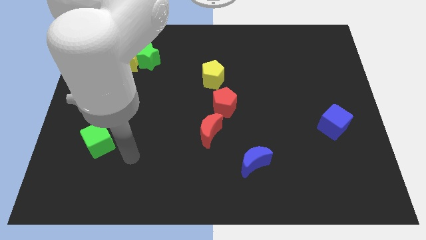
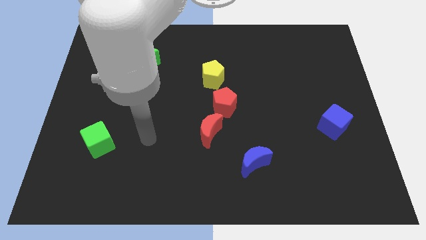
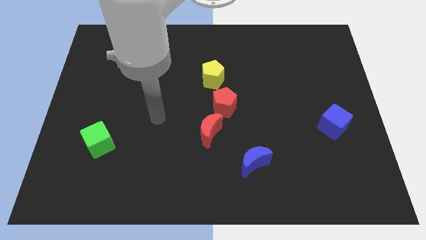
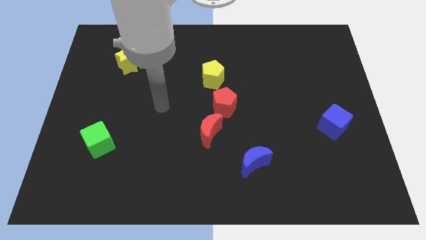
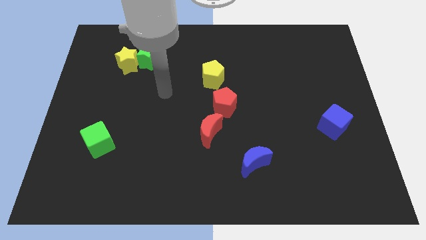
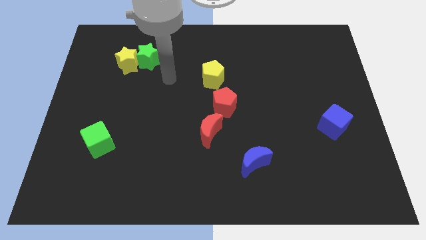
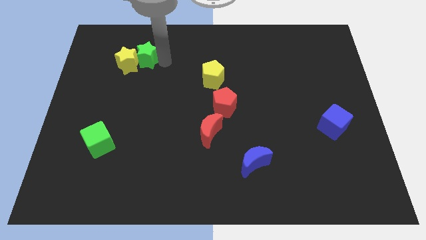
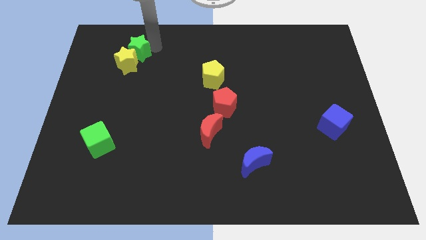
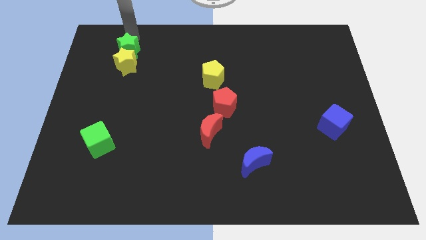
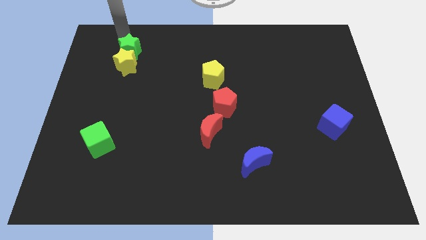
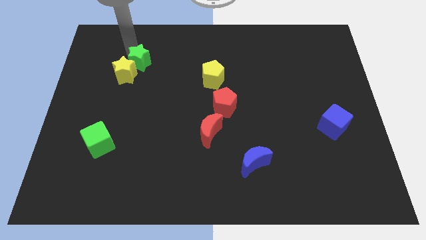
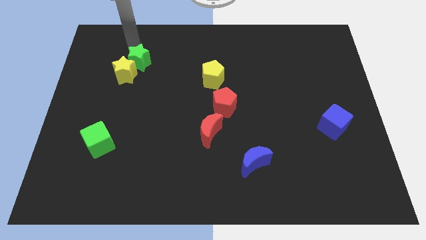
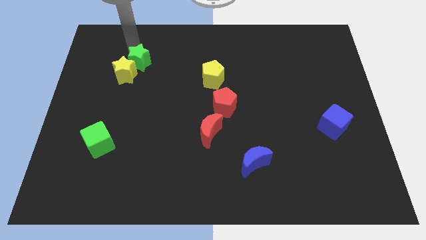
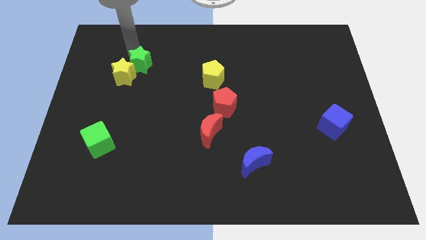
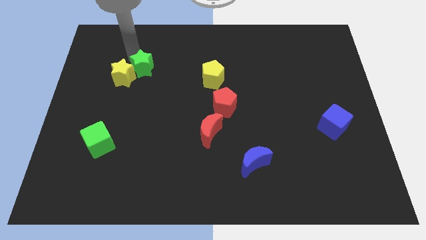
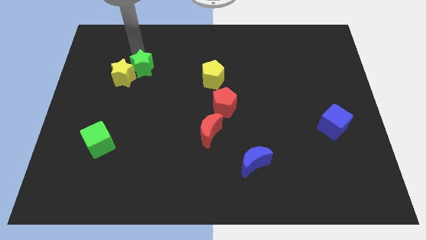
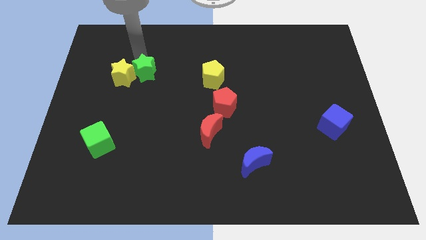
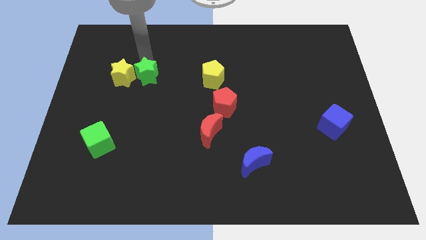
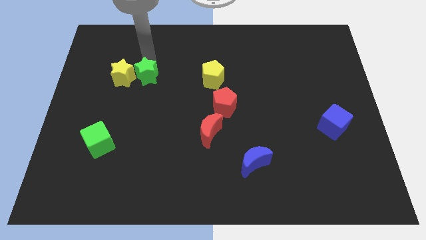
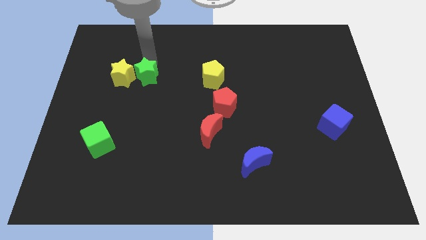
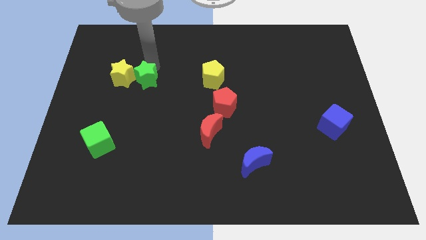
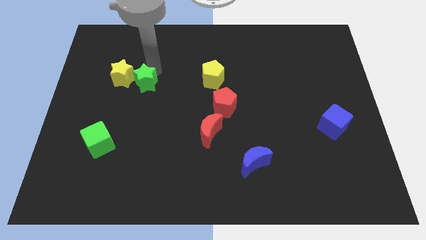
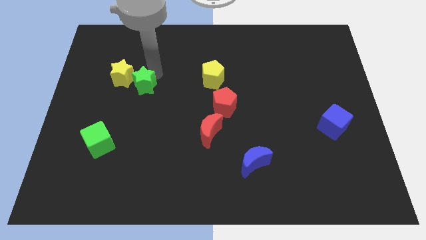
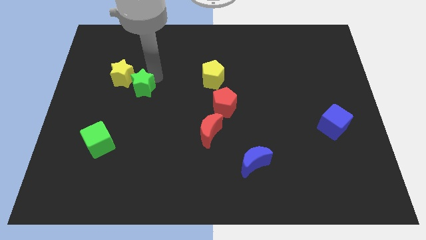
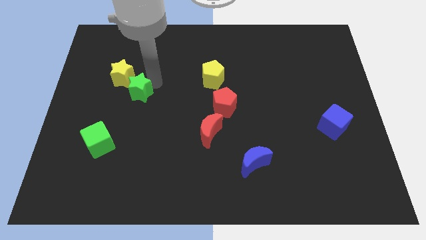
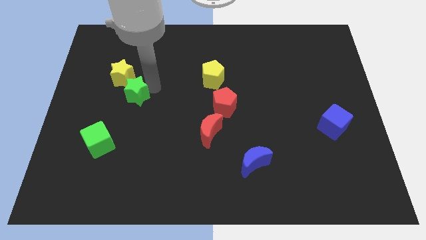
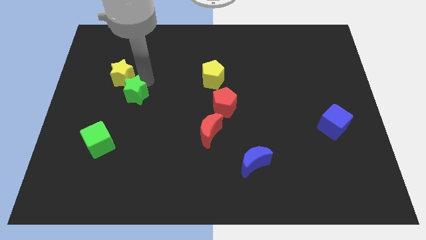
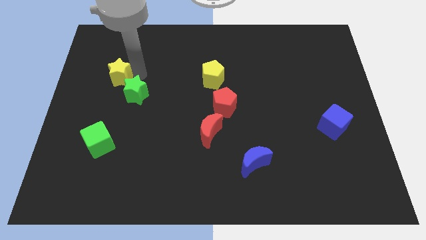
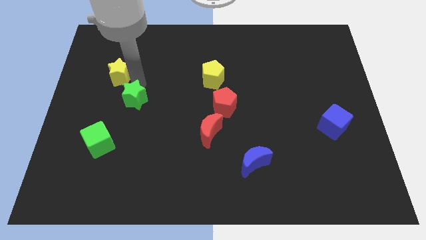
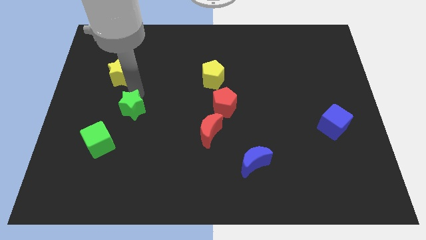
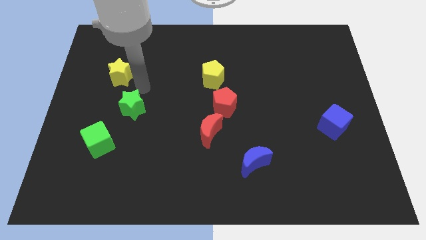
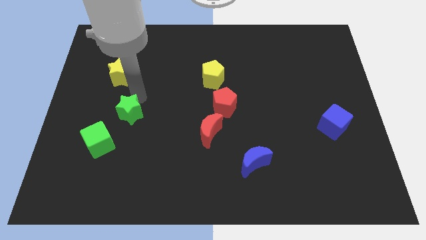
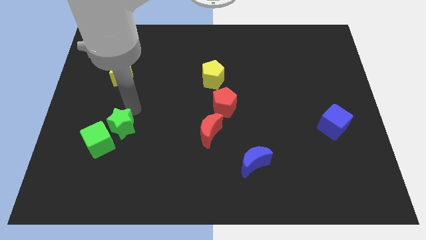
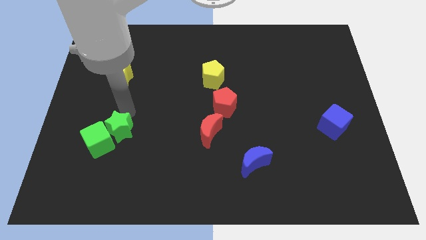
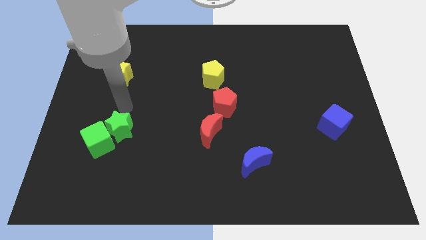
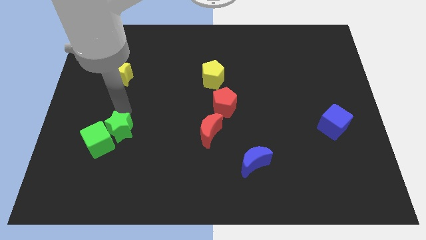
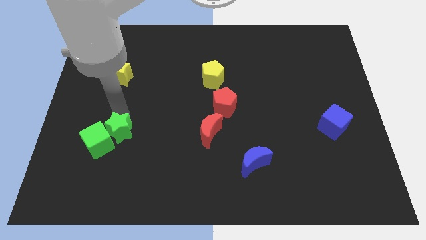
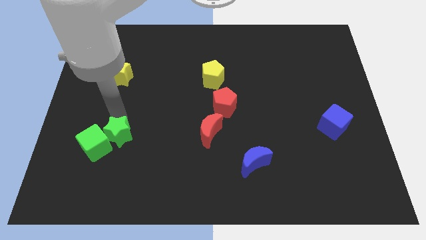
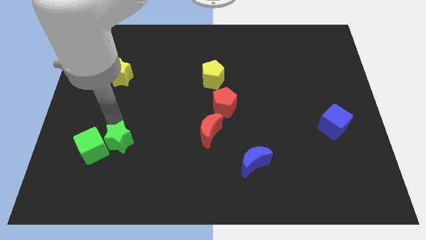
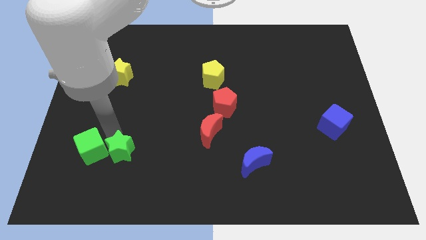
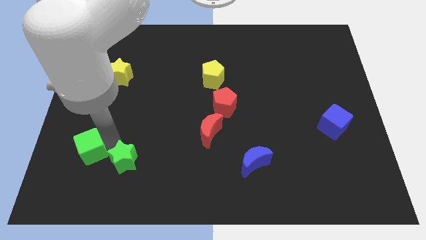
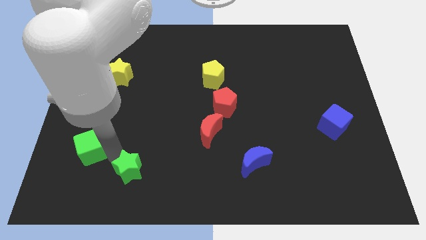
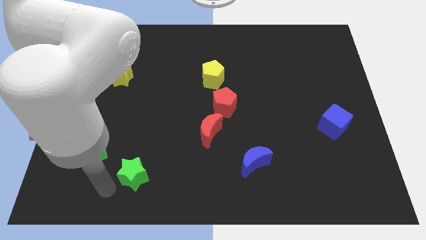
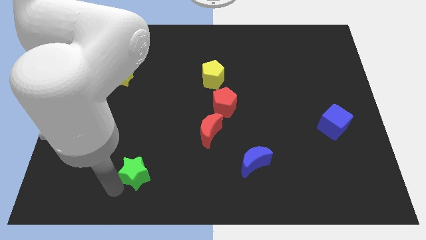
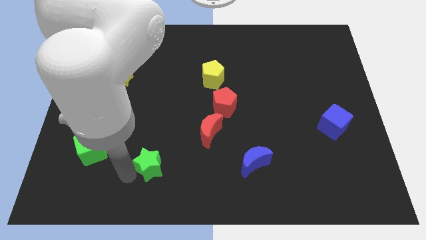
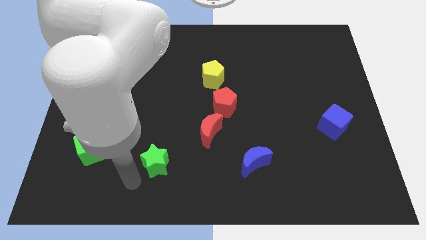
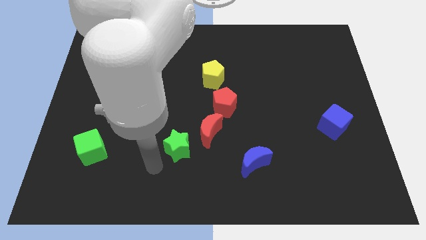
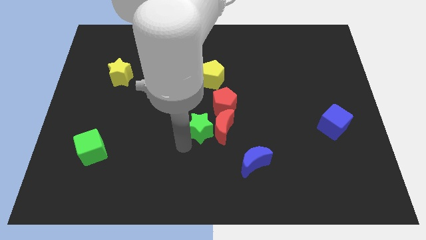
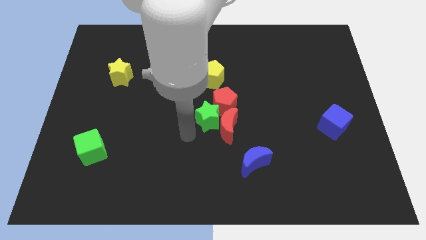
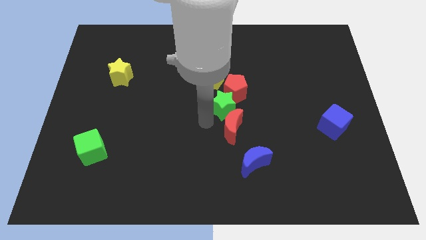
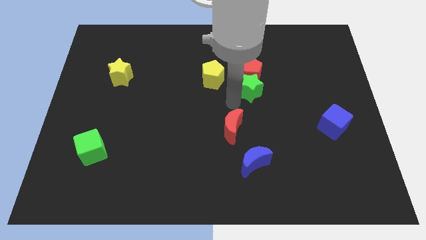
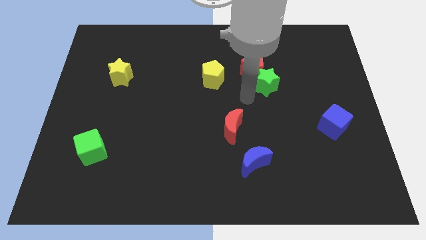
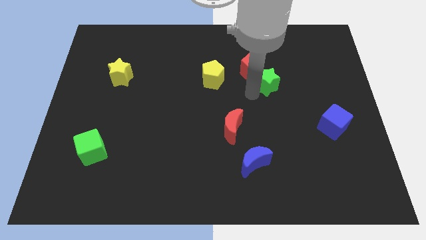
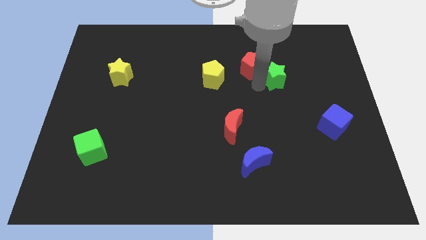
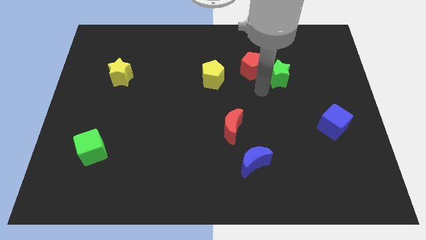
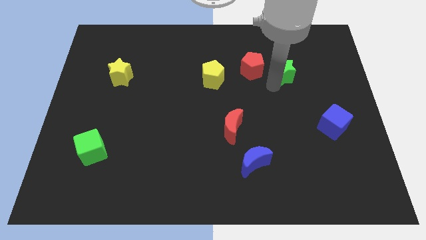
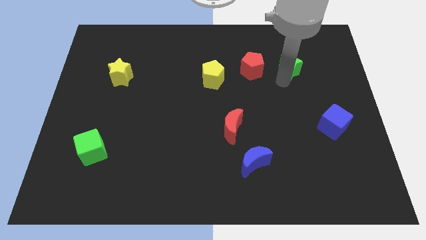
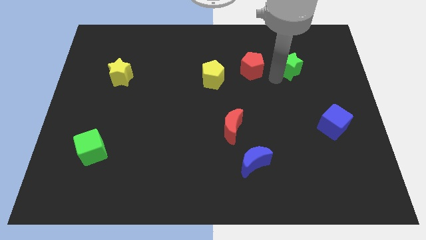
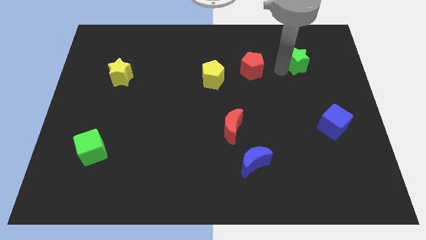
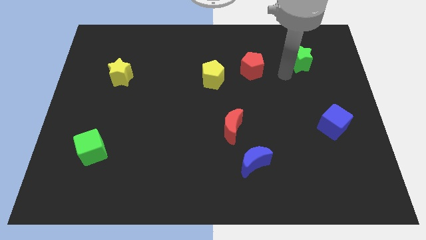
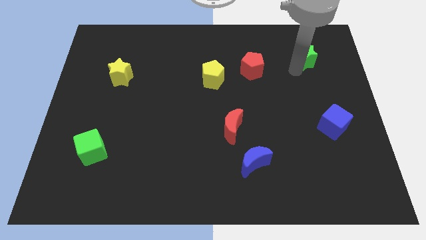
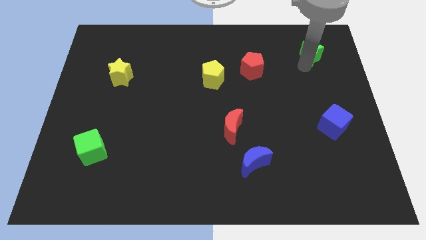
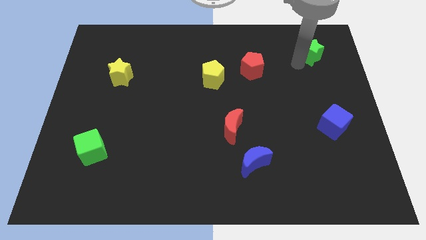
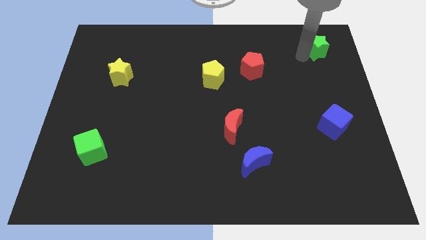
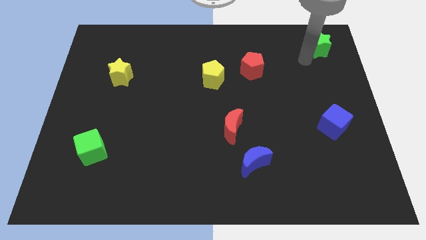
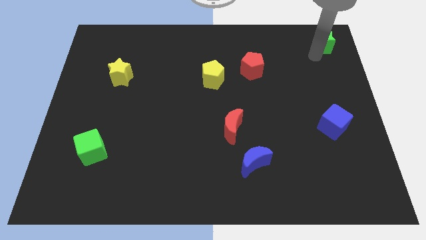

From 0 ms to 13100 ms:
slide the green star to the top right
